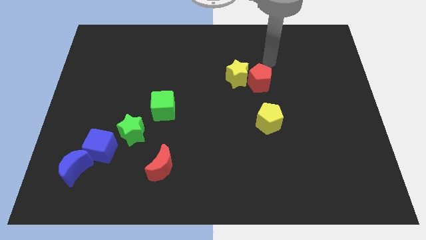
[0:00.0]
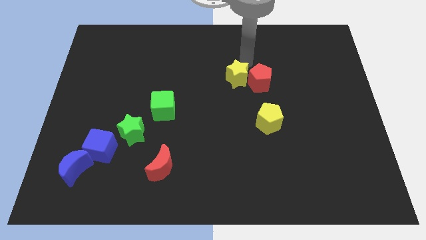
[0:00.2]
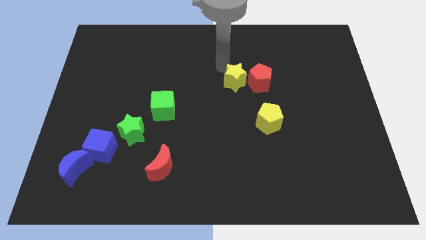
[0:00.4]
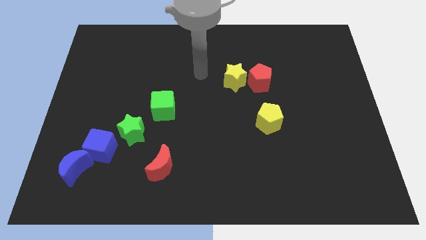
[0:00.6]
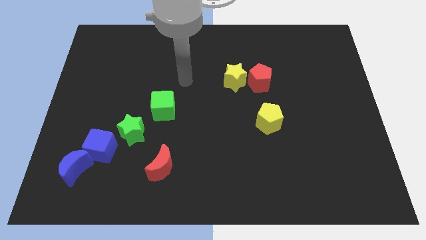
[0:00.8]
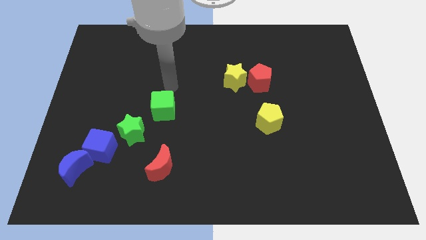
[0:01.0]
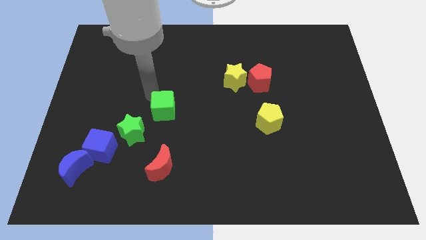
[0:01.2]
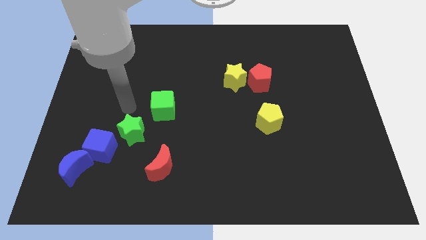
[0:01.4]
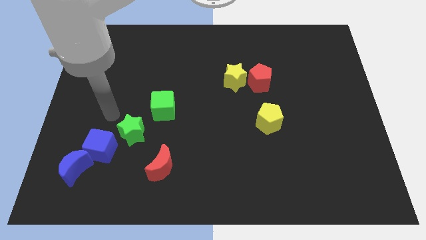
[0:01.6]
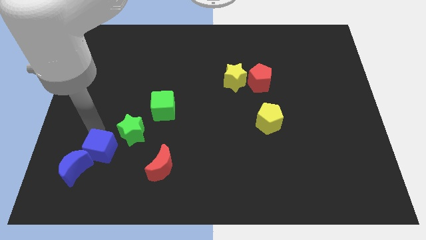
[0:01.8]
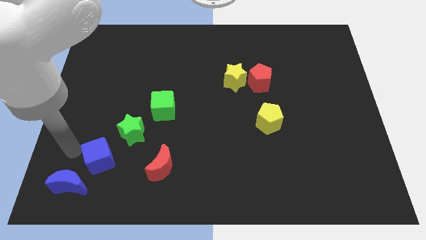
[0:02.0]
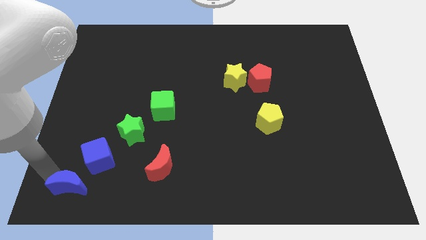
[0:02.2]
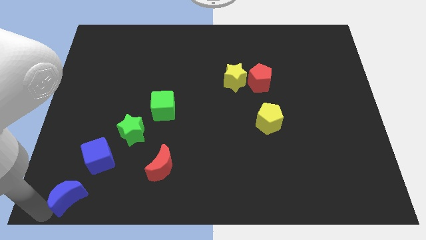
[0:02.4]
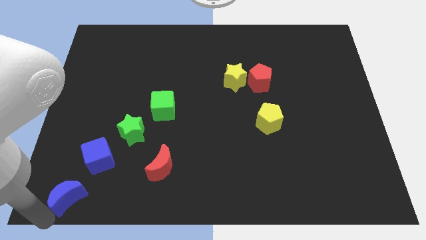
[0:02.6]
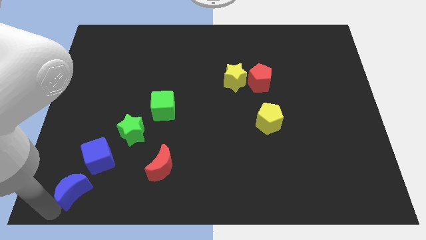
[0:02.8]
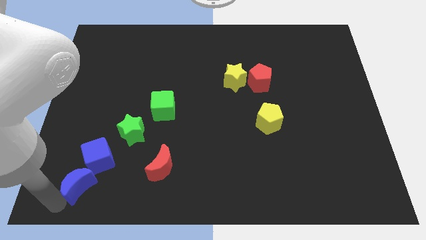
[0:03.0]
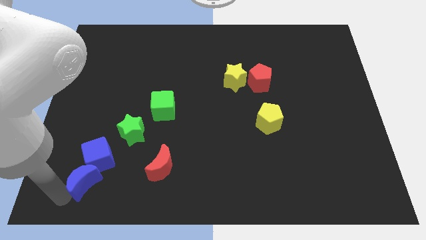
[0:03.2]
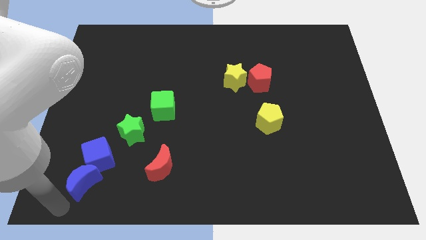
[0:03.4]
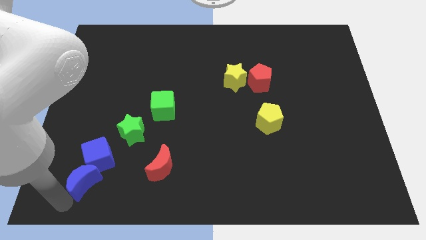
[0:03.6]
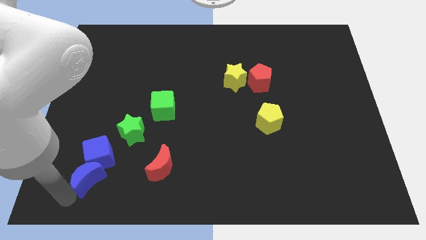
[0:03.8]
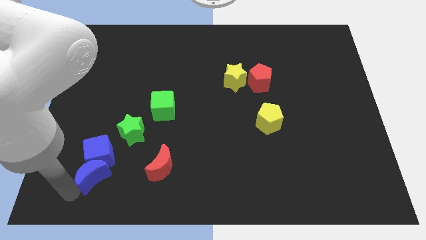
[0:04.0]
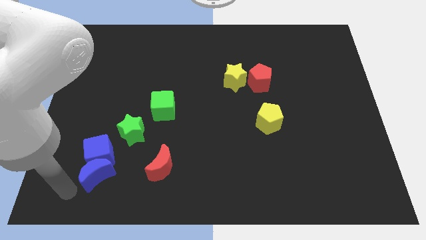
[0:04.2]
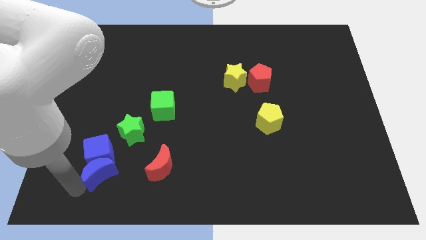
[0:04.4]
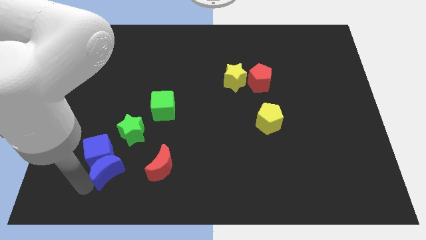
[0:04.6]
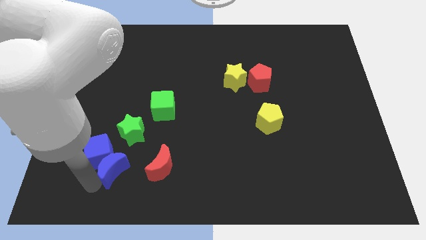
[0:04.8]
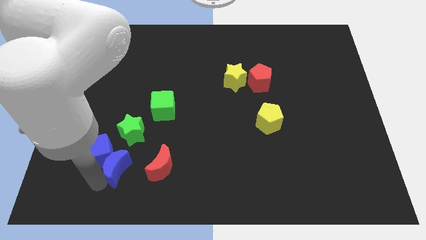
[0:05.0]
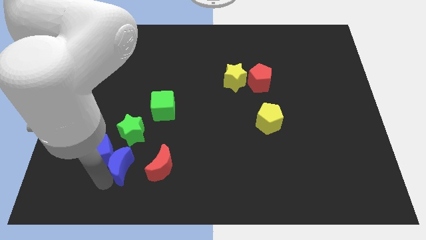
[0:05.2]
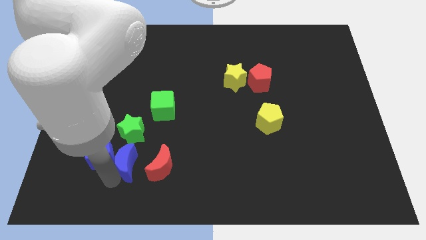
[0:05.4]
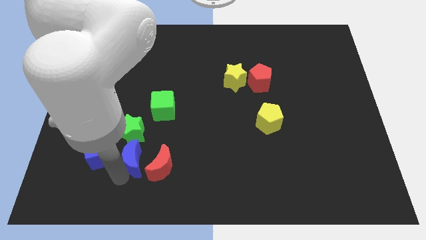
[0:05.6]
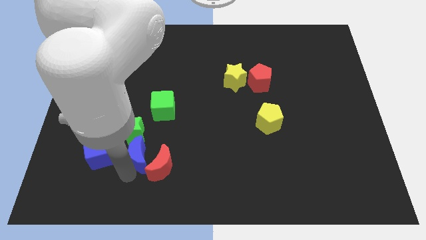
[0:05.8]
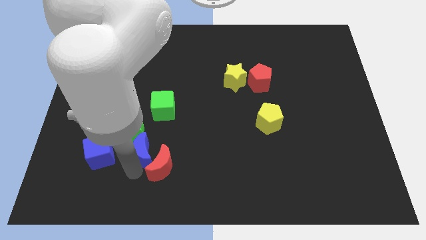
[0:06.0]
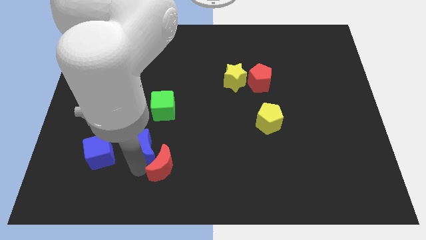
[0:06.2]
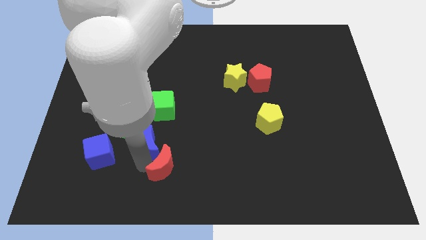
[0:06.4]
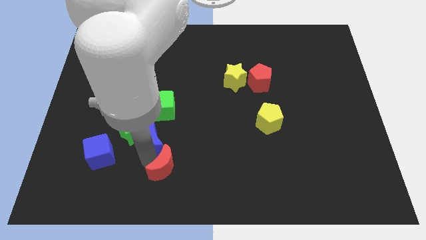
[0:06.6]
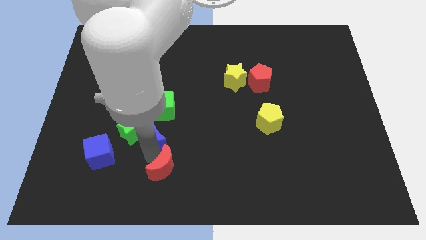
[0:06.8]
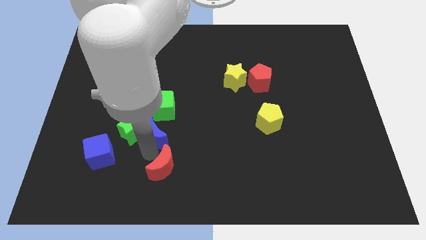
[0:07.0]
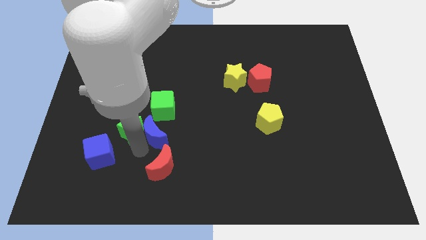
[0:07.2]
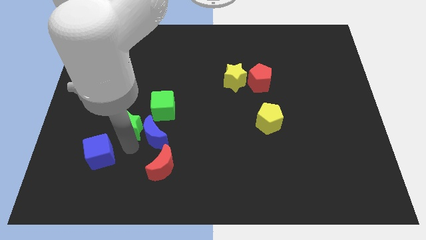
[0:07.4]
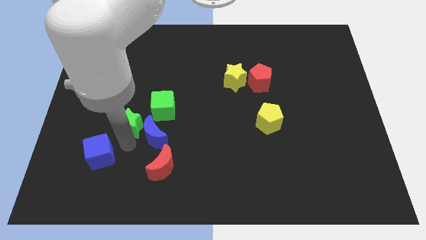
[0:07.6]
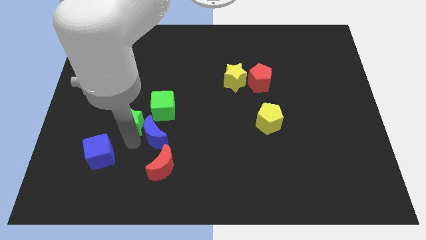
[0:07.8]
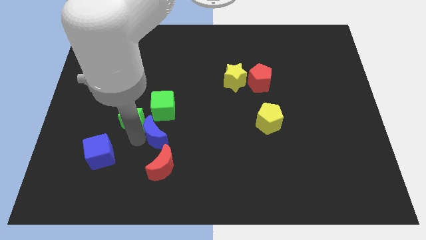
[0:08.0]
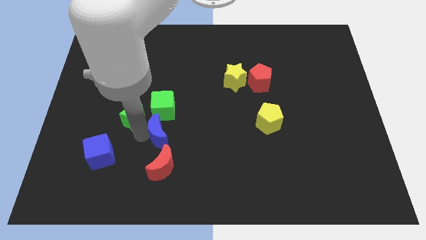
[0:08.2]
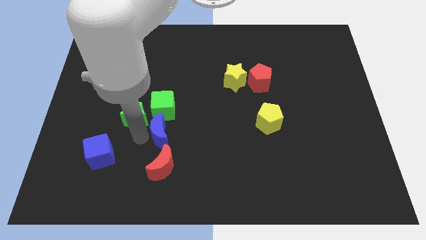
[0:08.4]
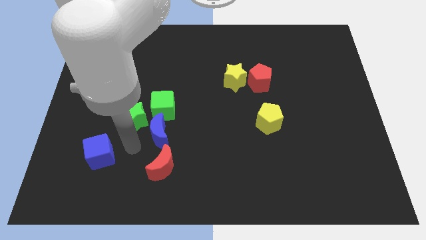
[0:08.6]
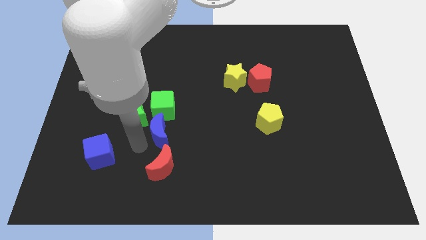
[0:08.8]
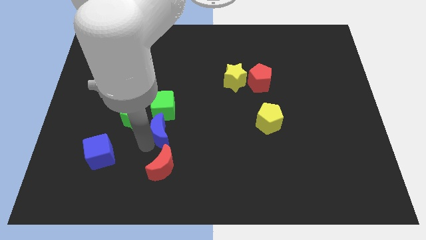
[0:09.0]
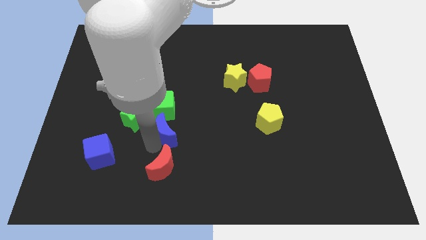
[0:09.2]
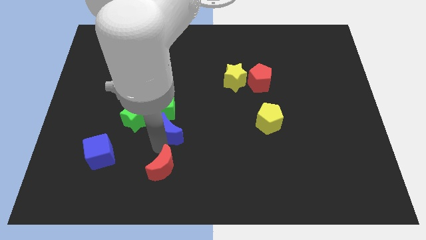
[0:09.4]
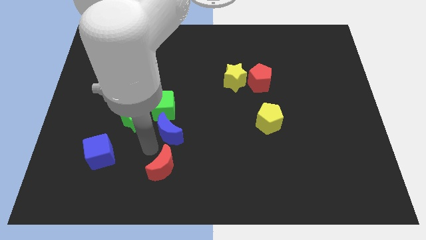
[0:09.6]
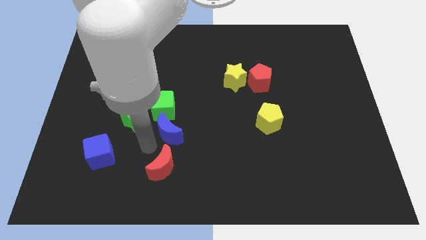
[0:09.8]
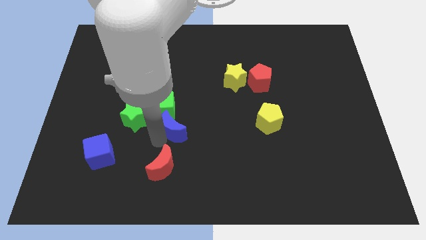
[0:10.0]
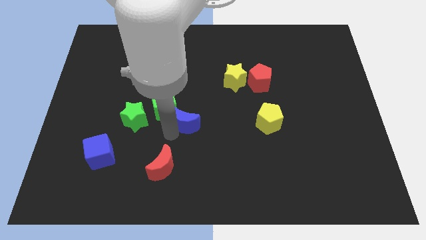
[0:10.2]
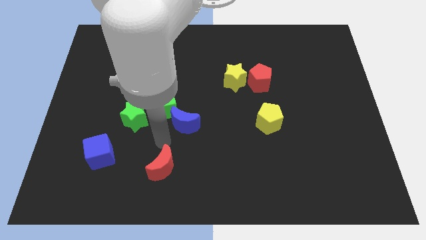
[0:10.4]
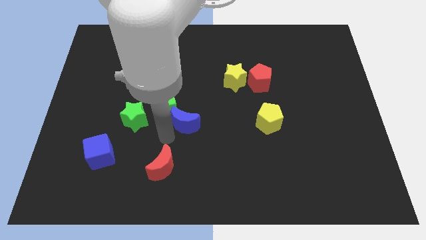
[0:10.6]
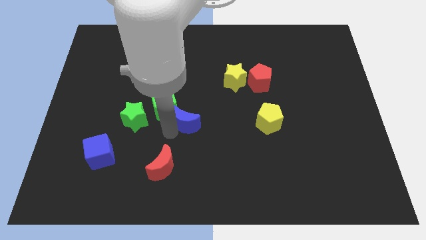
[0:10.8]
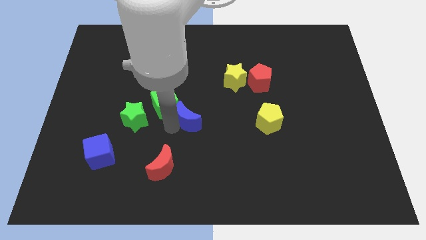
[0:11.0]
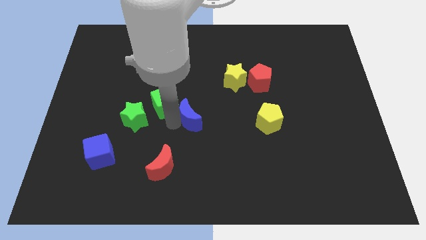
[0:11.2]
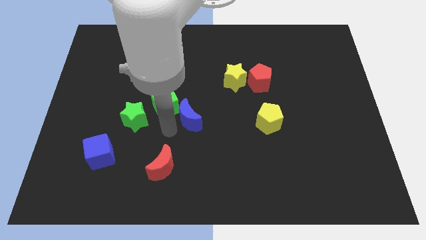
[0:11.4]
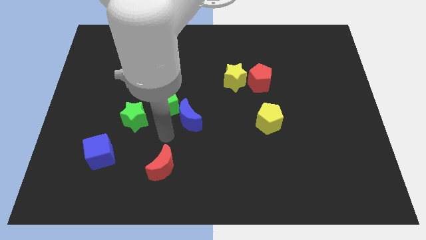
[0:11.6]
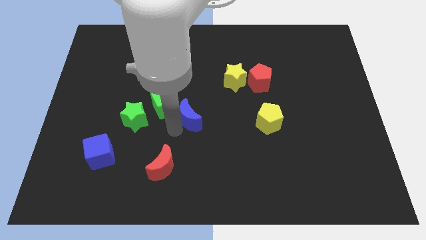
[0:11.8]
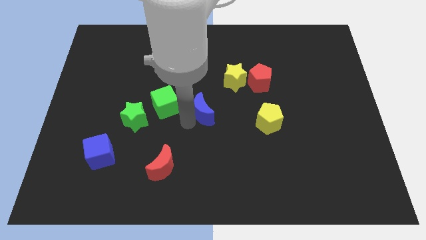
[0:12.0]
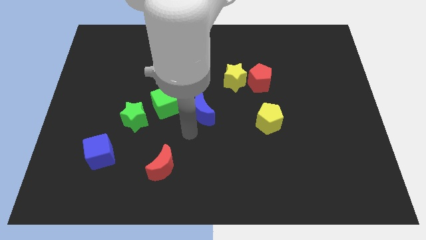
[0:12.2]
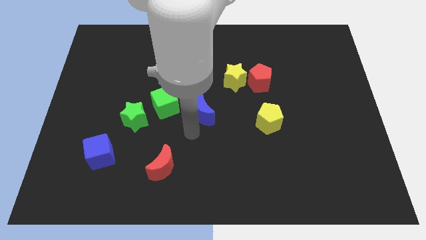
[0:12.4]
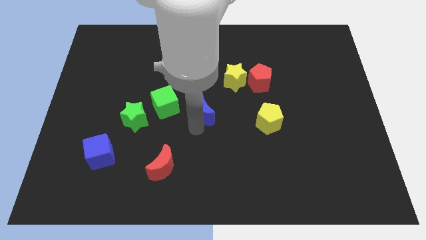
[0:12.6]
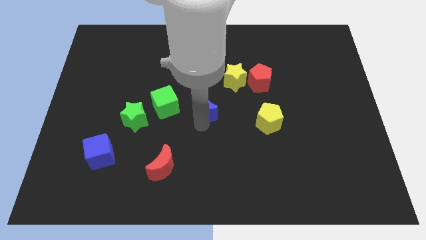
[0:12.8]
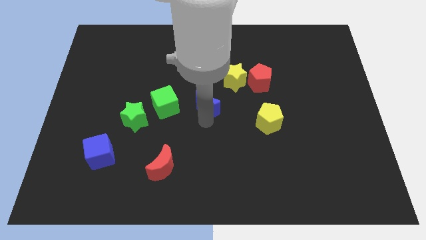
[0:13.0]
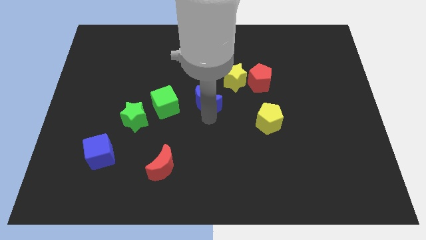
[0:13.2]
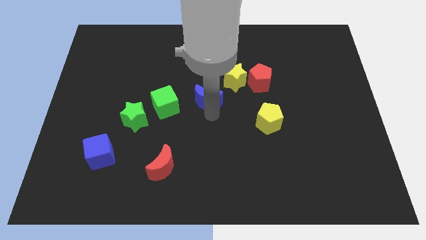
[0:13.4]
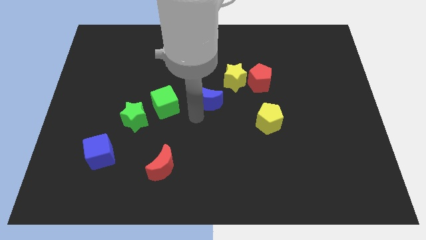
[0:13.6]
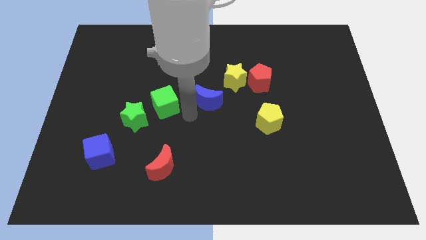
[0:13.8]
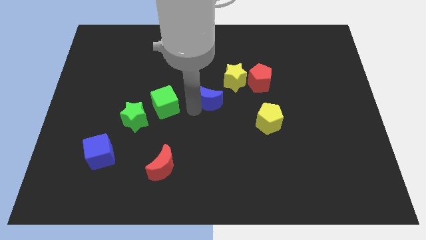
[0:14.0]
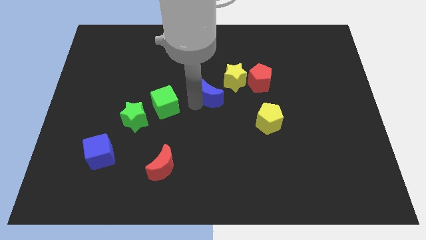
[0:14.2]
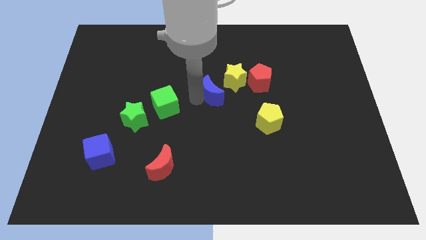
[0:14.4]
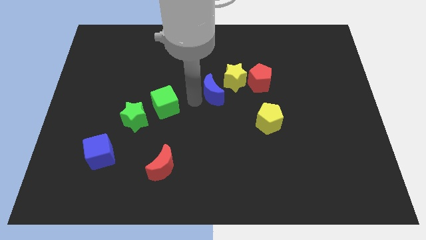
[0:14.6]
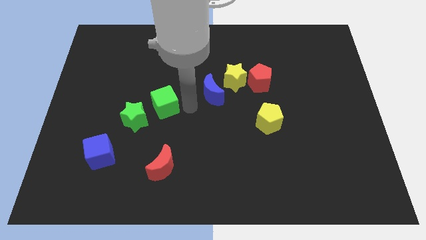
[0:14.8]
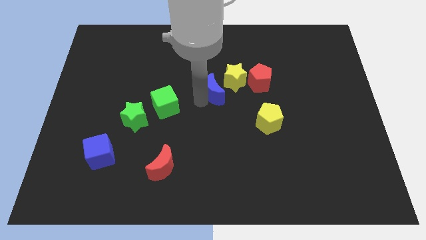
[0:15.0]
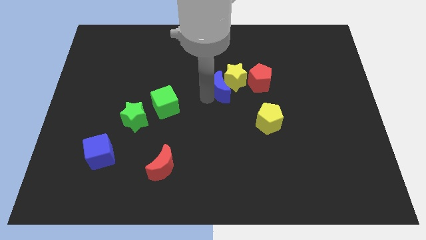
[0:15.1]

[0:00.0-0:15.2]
put the blue moon towards the yellow star

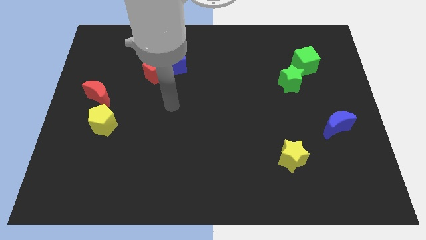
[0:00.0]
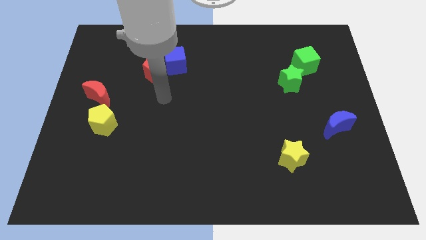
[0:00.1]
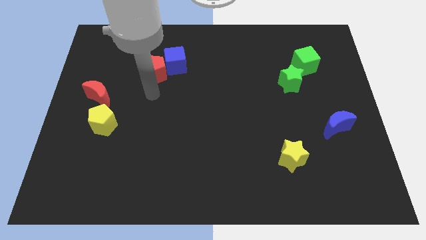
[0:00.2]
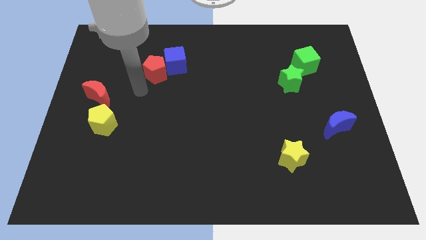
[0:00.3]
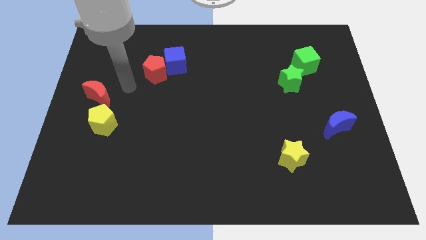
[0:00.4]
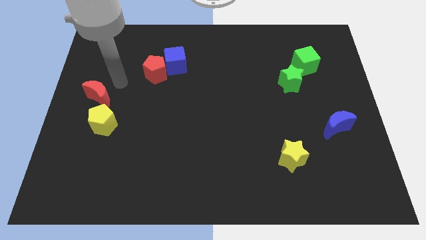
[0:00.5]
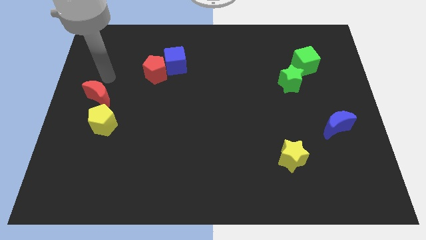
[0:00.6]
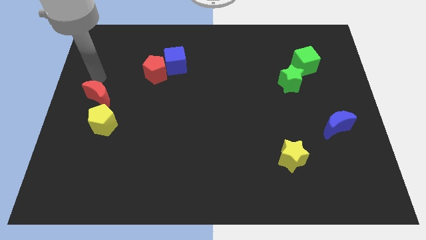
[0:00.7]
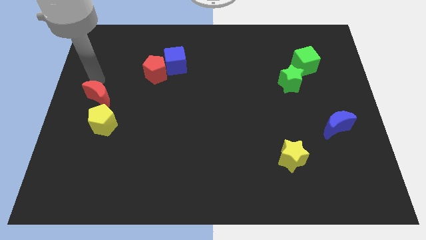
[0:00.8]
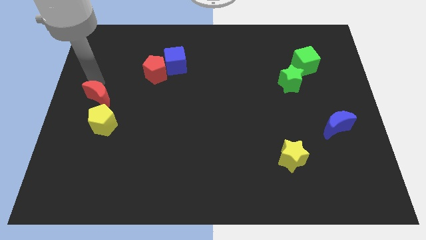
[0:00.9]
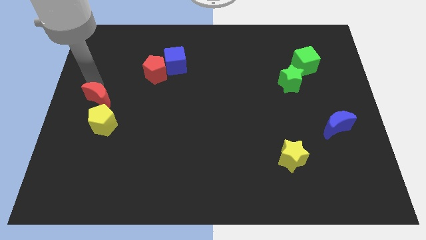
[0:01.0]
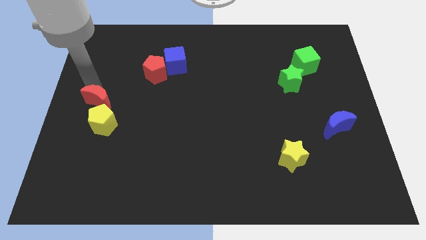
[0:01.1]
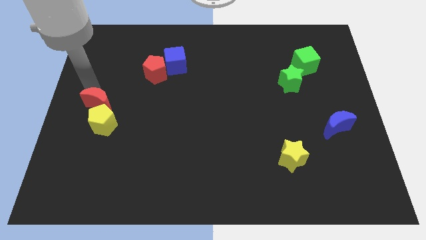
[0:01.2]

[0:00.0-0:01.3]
slide the red moon close to the yellow pentagon
